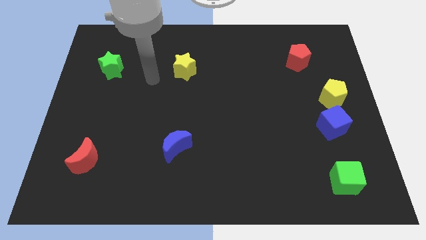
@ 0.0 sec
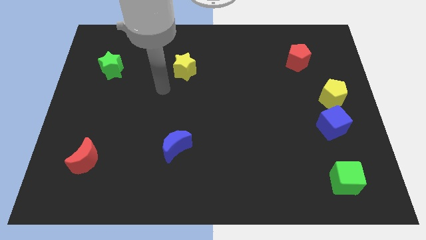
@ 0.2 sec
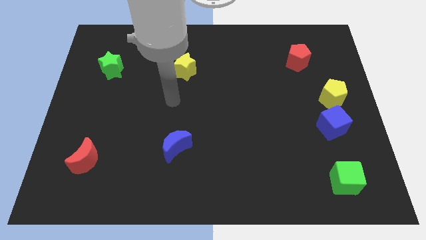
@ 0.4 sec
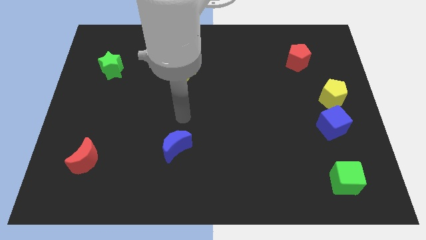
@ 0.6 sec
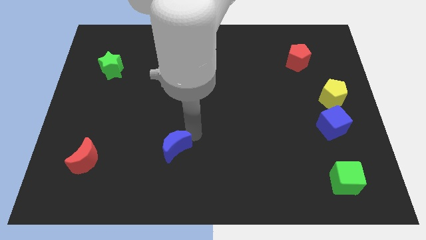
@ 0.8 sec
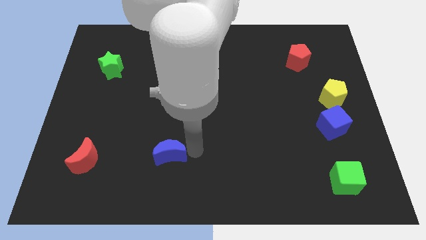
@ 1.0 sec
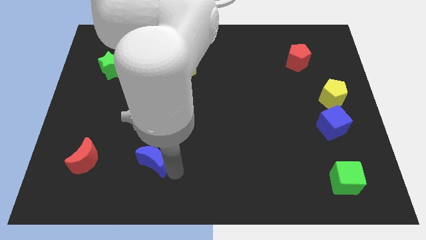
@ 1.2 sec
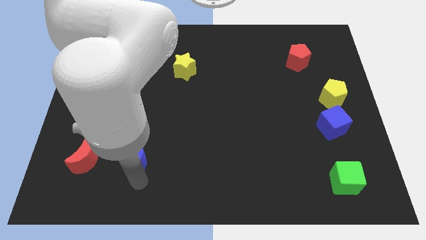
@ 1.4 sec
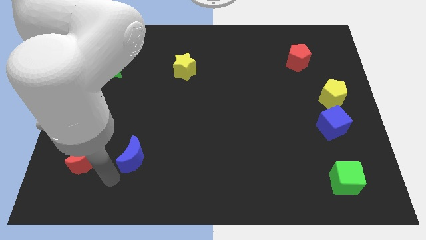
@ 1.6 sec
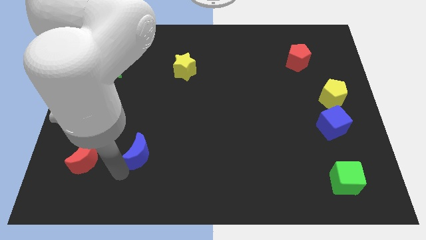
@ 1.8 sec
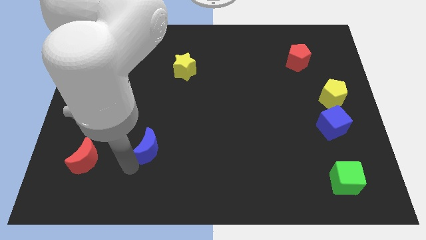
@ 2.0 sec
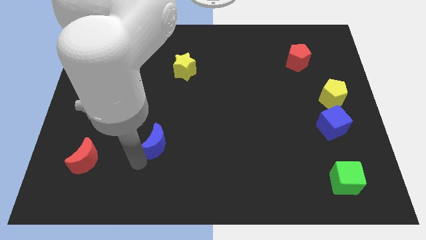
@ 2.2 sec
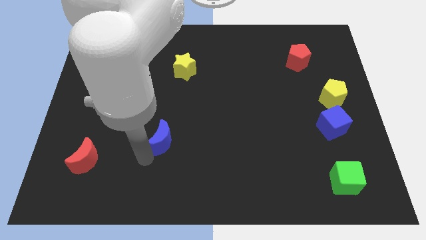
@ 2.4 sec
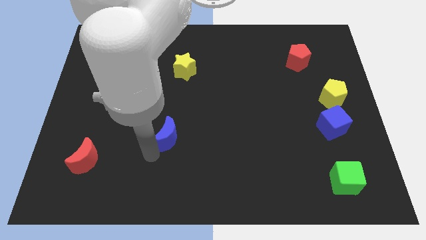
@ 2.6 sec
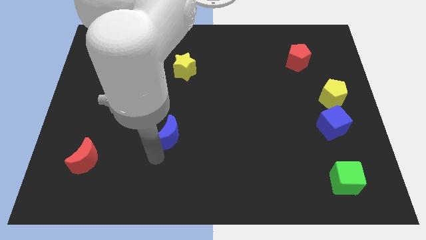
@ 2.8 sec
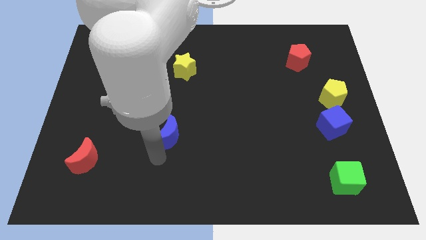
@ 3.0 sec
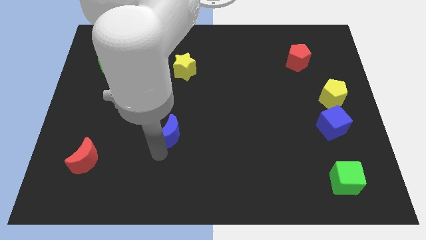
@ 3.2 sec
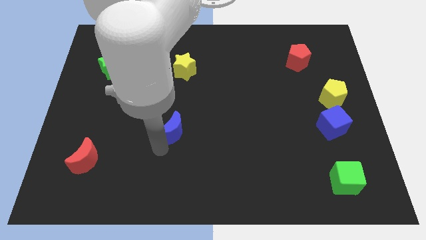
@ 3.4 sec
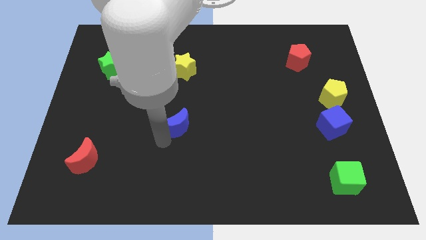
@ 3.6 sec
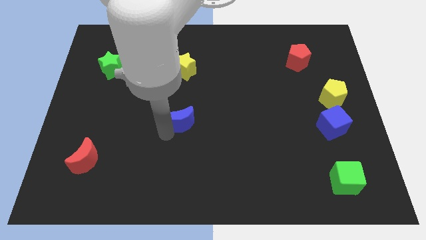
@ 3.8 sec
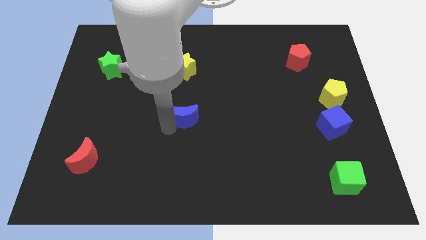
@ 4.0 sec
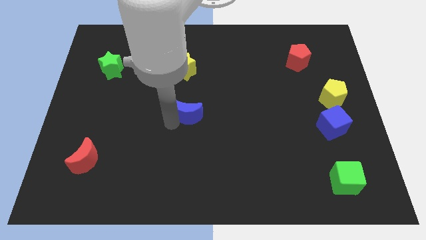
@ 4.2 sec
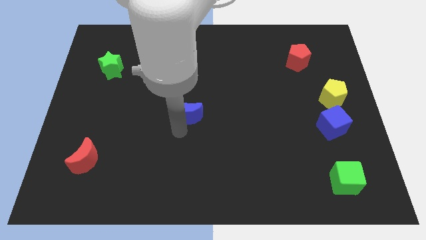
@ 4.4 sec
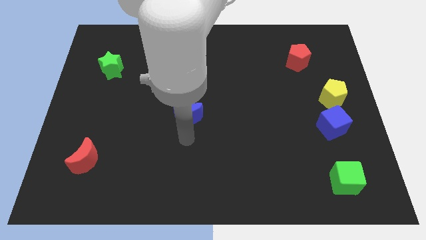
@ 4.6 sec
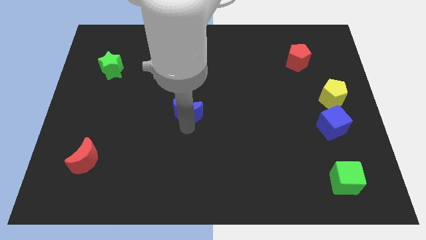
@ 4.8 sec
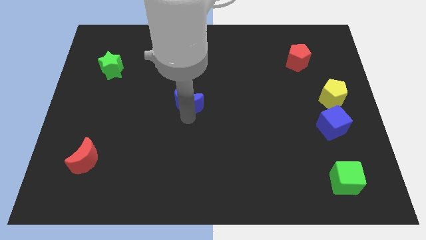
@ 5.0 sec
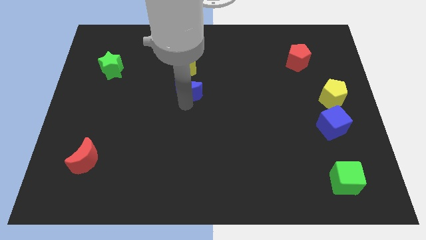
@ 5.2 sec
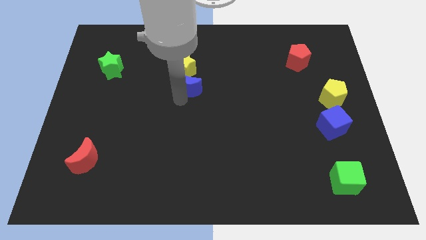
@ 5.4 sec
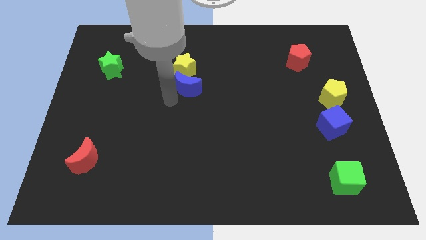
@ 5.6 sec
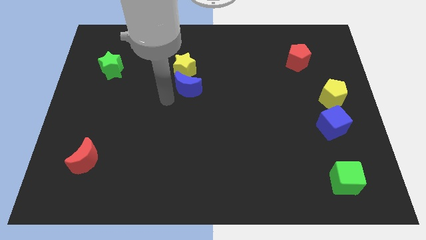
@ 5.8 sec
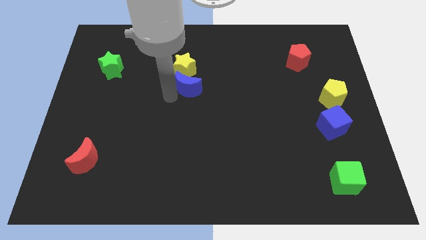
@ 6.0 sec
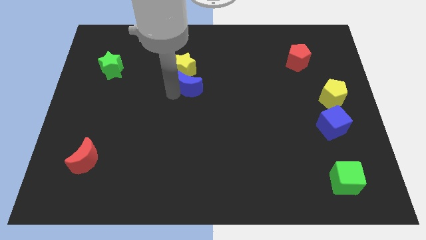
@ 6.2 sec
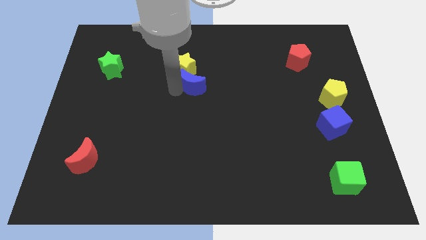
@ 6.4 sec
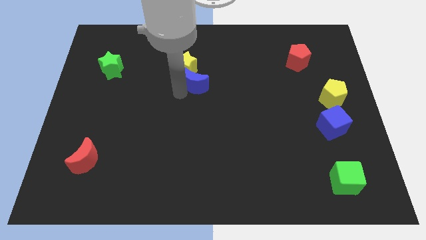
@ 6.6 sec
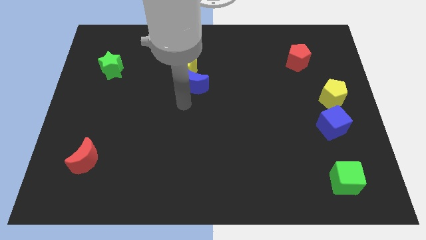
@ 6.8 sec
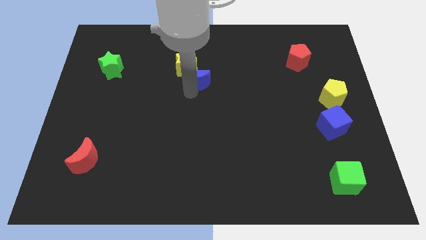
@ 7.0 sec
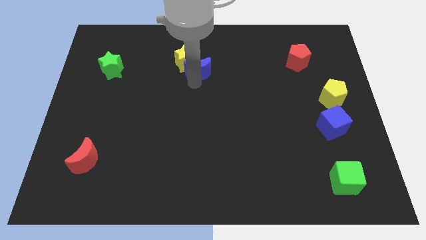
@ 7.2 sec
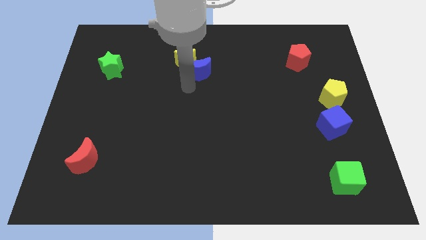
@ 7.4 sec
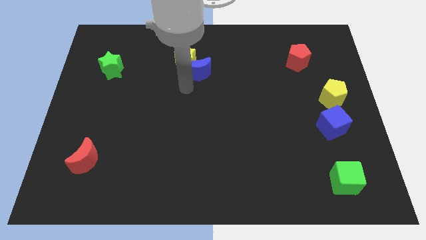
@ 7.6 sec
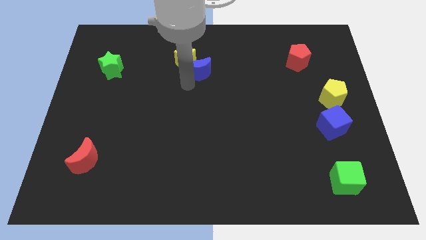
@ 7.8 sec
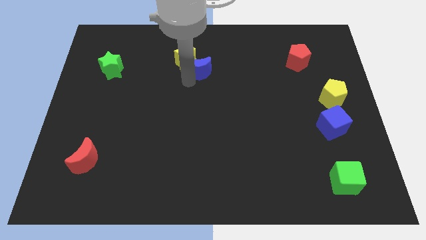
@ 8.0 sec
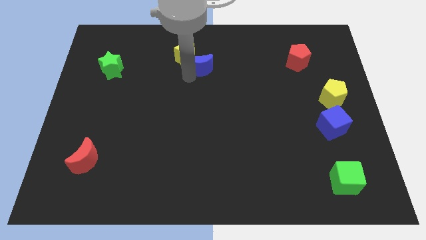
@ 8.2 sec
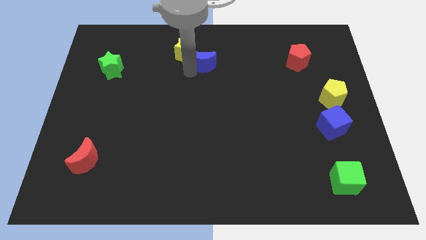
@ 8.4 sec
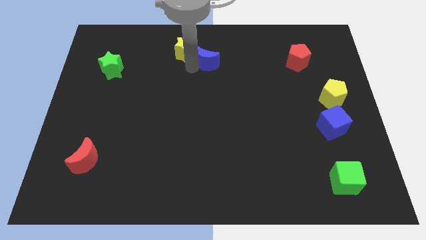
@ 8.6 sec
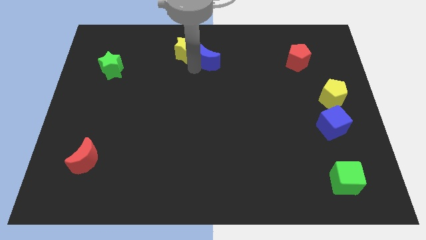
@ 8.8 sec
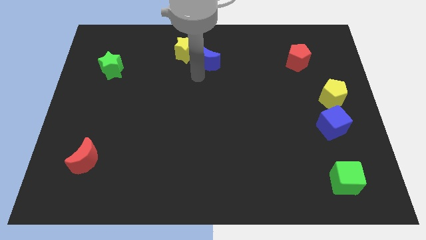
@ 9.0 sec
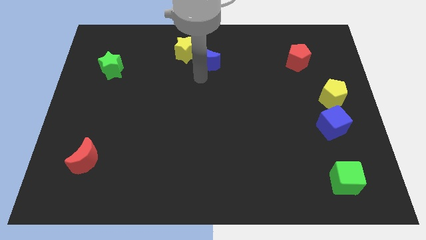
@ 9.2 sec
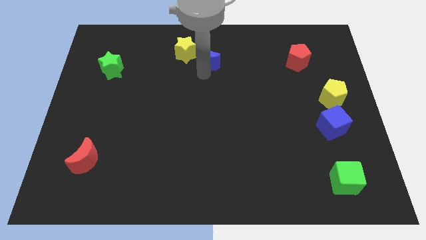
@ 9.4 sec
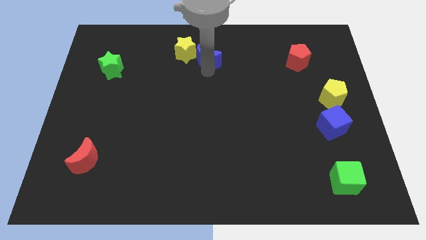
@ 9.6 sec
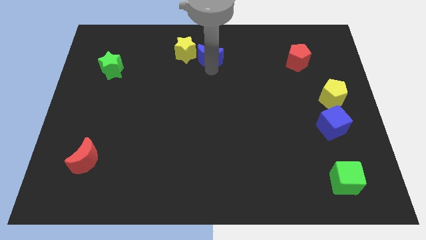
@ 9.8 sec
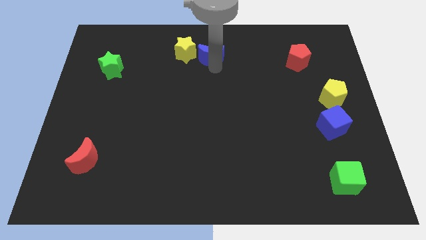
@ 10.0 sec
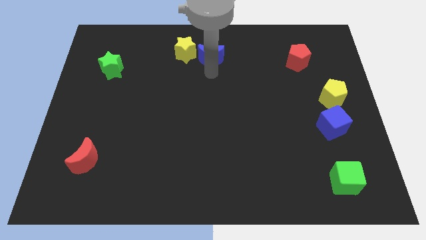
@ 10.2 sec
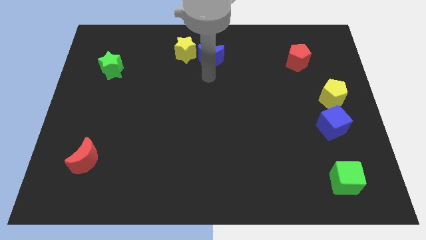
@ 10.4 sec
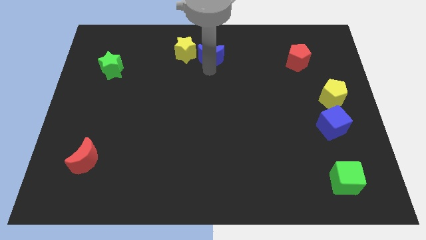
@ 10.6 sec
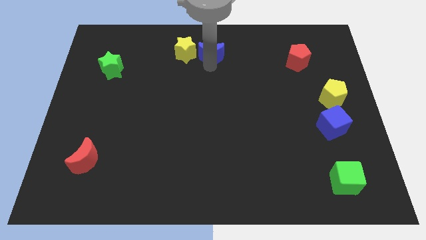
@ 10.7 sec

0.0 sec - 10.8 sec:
move the blue moon to the top

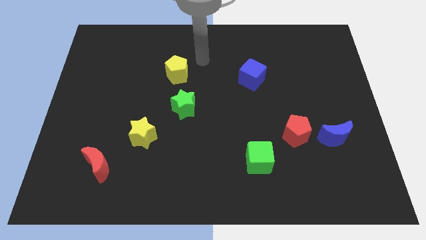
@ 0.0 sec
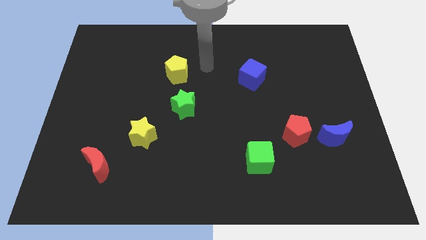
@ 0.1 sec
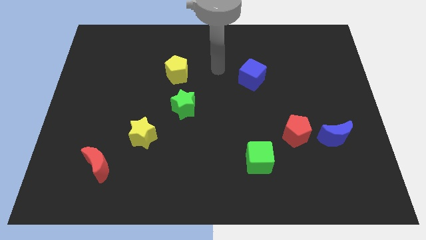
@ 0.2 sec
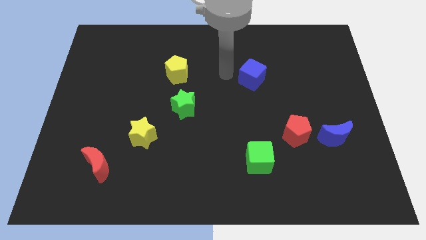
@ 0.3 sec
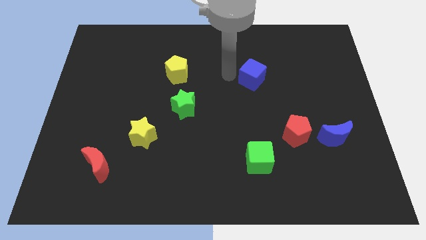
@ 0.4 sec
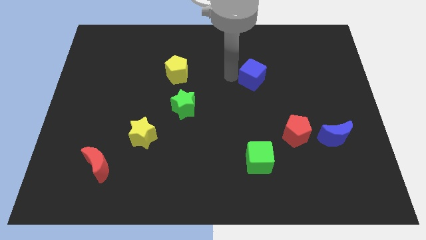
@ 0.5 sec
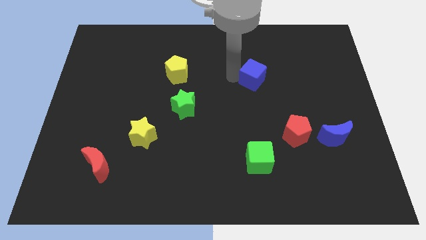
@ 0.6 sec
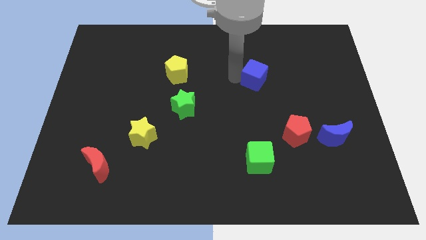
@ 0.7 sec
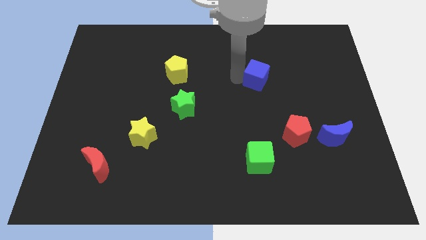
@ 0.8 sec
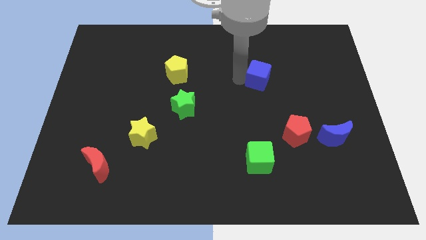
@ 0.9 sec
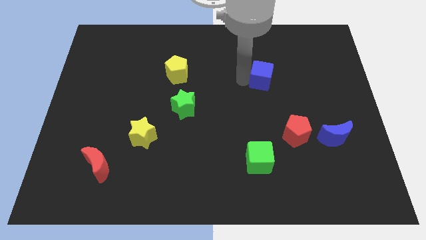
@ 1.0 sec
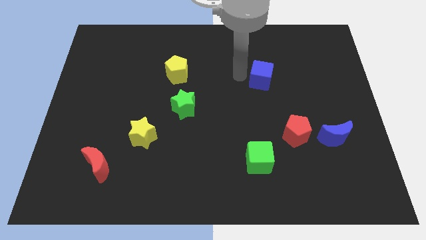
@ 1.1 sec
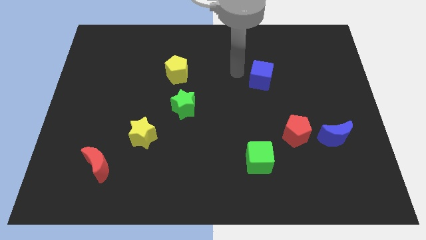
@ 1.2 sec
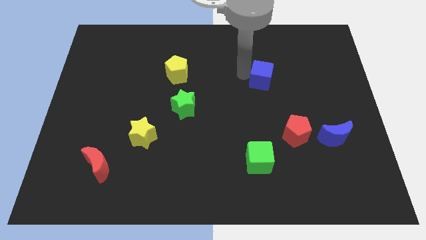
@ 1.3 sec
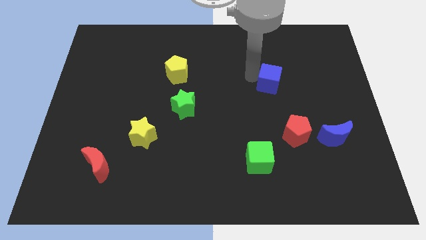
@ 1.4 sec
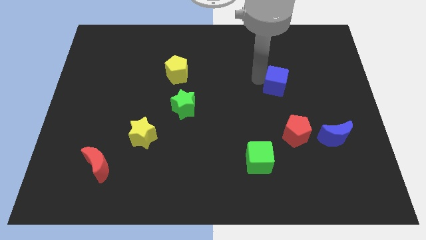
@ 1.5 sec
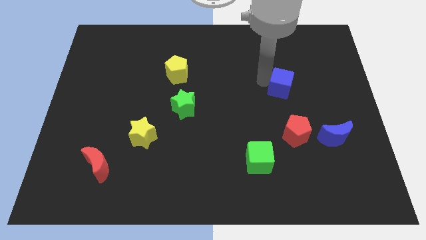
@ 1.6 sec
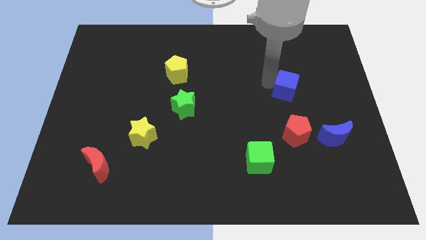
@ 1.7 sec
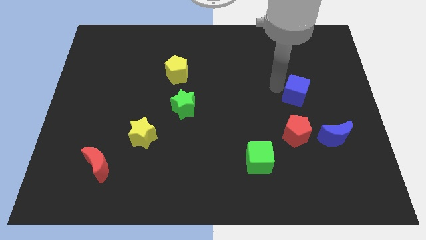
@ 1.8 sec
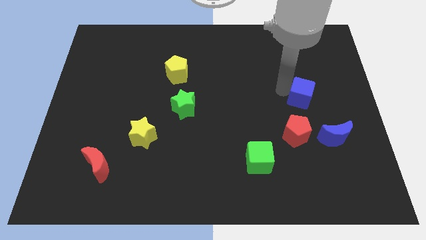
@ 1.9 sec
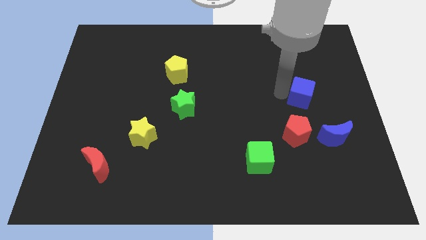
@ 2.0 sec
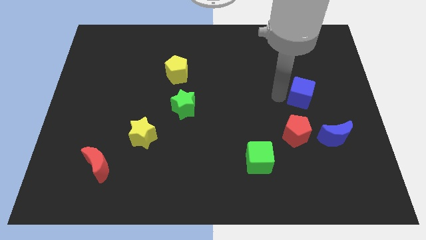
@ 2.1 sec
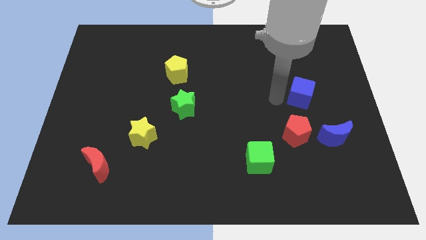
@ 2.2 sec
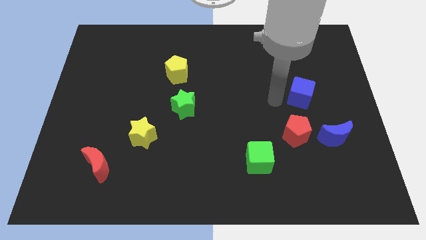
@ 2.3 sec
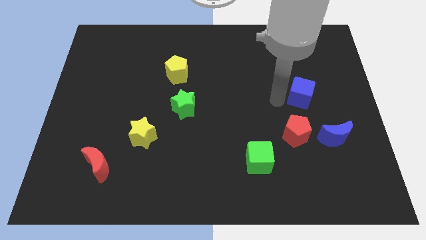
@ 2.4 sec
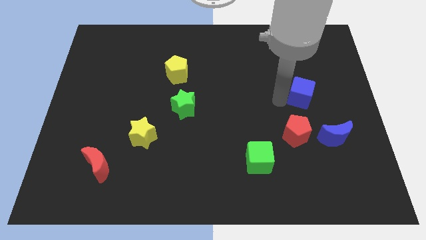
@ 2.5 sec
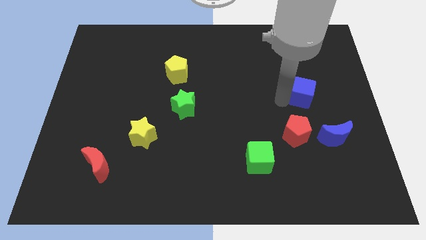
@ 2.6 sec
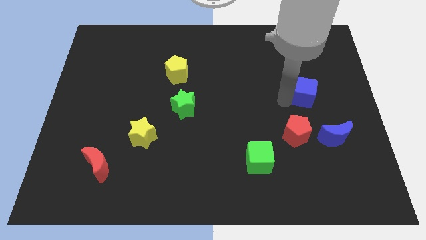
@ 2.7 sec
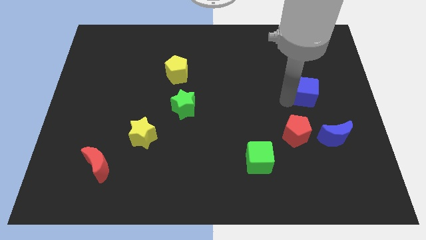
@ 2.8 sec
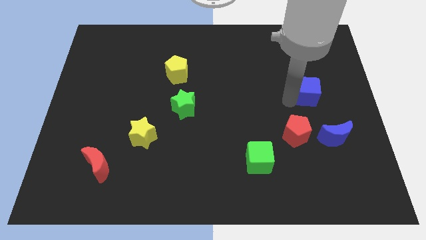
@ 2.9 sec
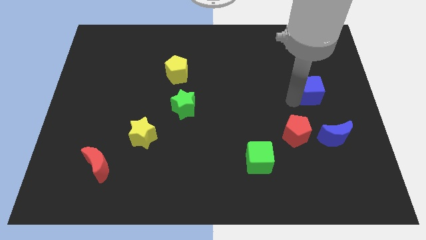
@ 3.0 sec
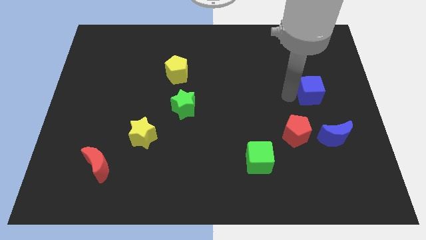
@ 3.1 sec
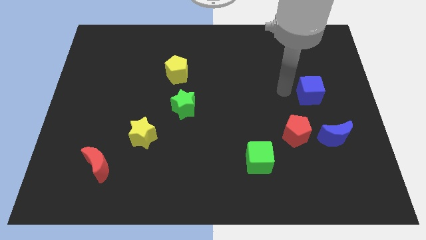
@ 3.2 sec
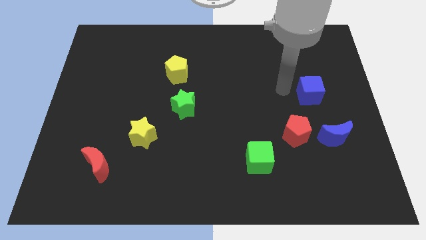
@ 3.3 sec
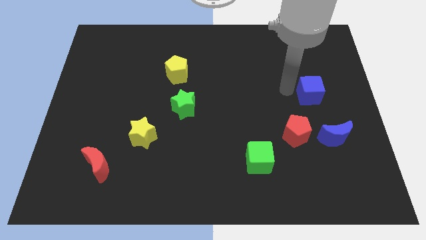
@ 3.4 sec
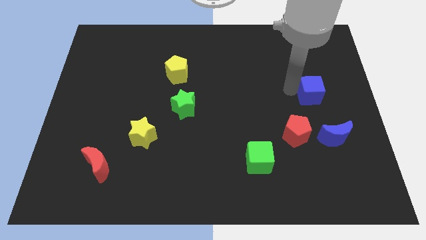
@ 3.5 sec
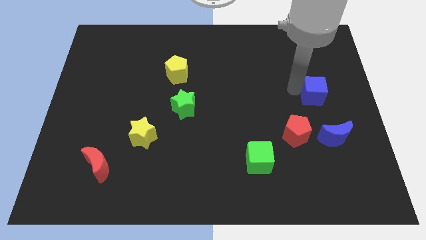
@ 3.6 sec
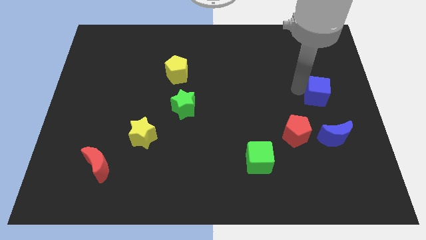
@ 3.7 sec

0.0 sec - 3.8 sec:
move the blue cube to the right side
